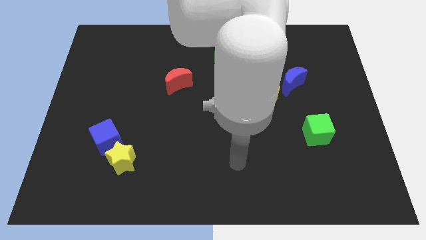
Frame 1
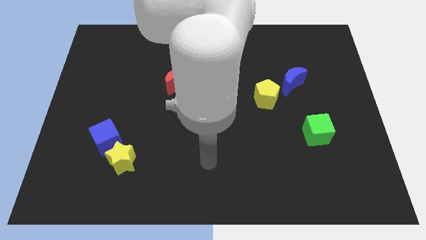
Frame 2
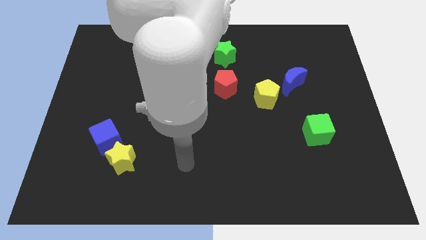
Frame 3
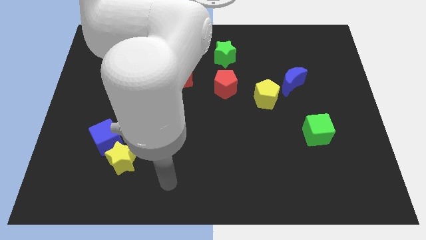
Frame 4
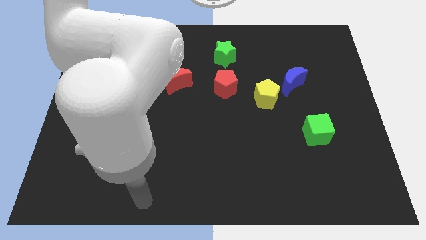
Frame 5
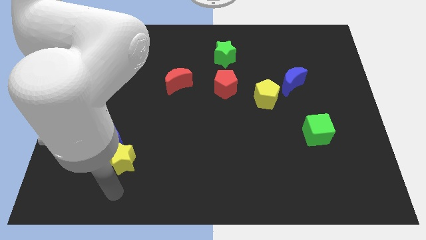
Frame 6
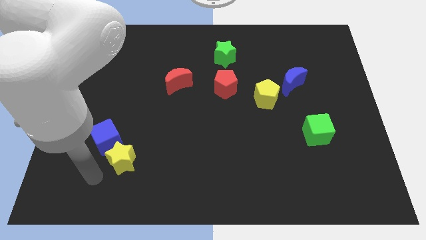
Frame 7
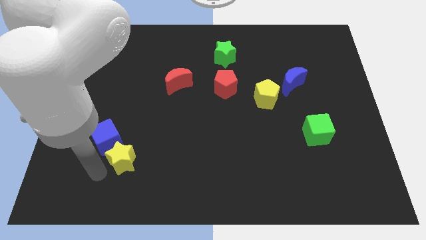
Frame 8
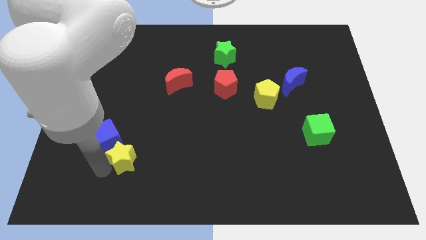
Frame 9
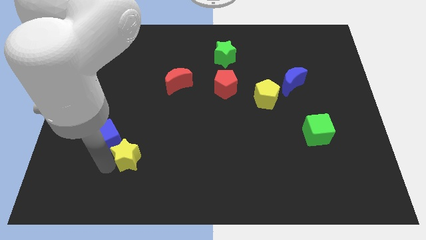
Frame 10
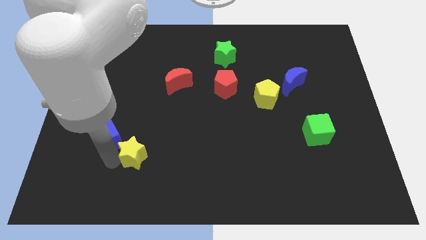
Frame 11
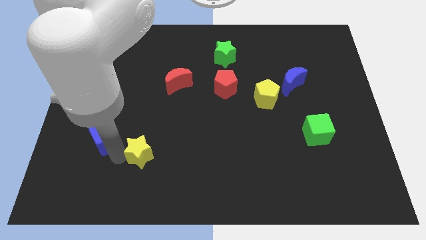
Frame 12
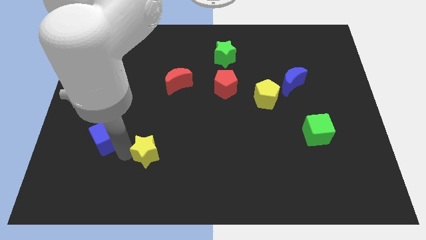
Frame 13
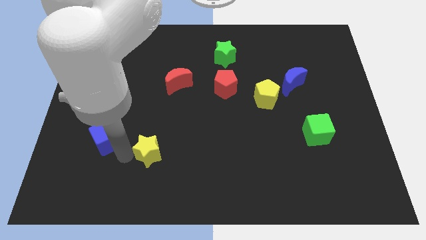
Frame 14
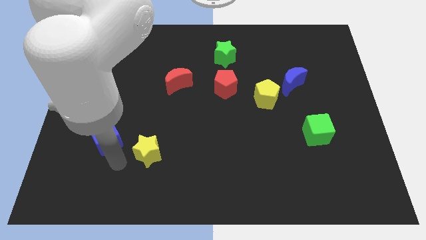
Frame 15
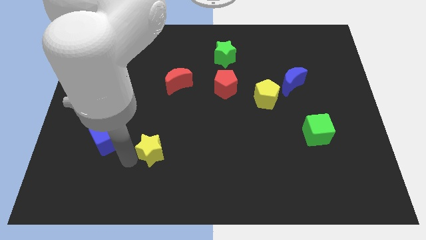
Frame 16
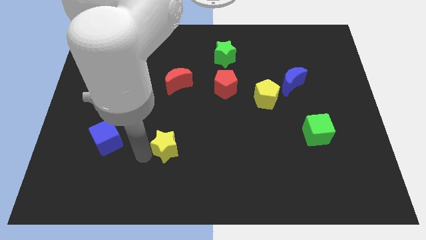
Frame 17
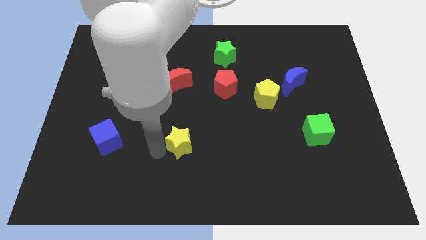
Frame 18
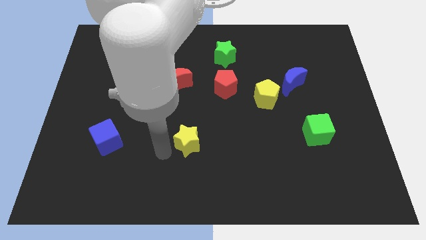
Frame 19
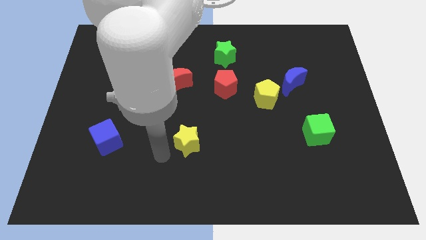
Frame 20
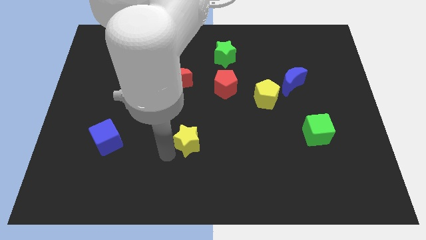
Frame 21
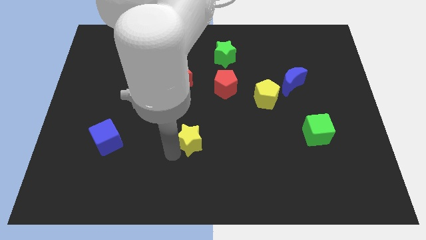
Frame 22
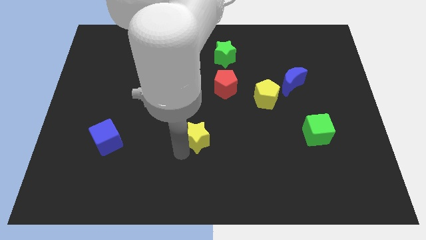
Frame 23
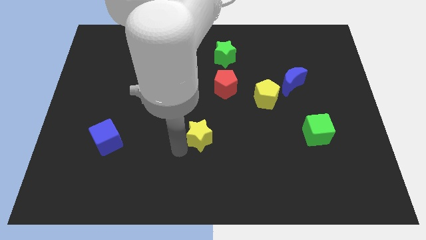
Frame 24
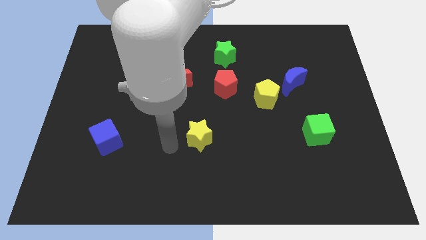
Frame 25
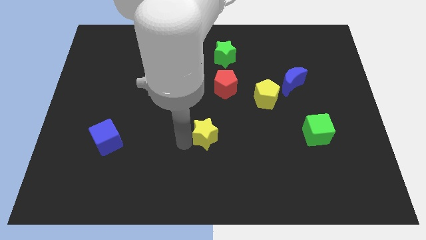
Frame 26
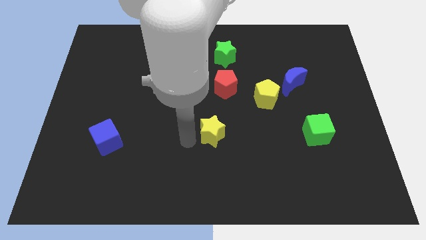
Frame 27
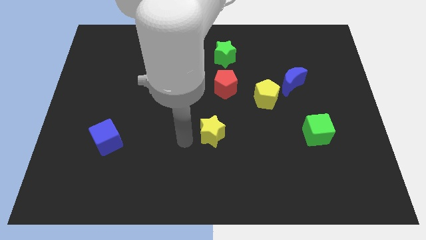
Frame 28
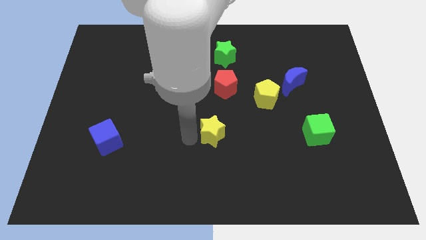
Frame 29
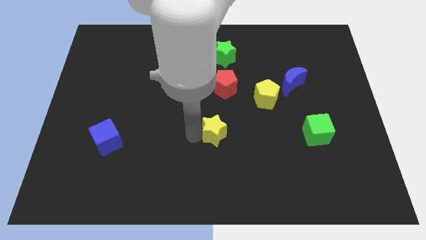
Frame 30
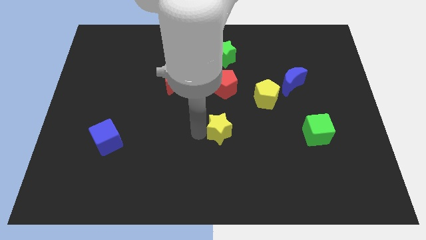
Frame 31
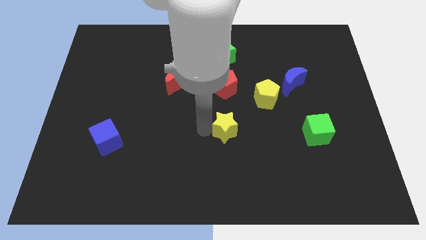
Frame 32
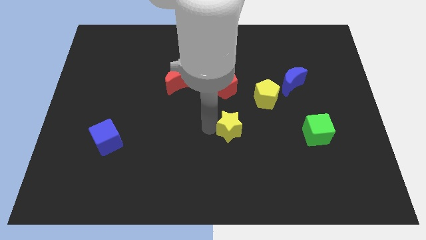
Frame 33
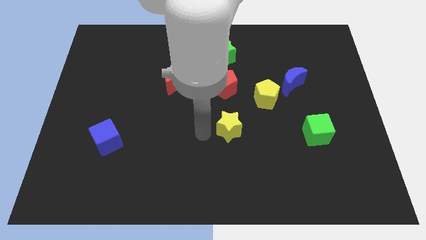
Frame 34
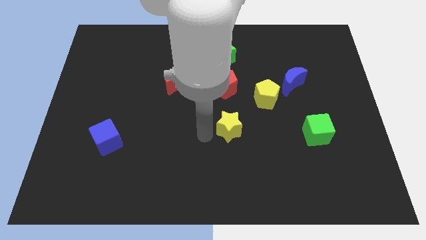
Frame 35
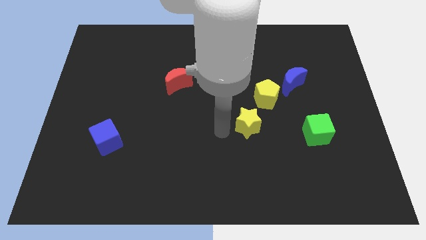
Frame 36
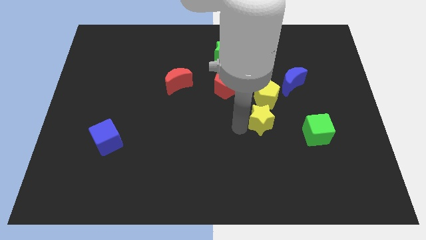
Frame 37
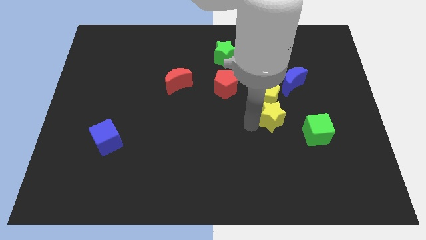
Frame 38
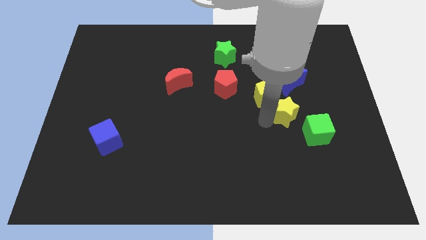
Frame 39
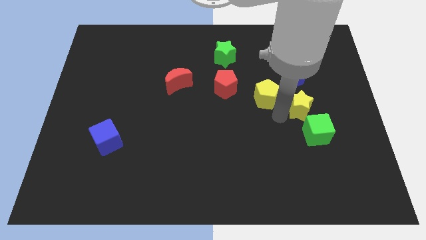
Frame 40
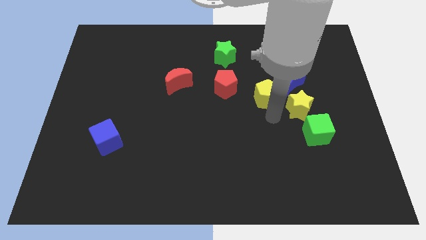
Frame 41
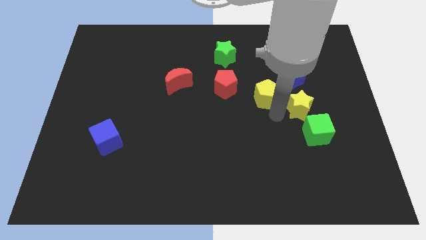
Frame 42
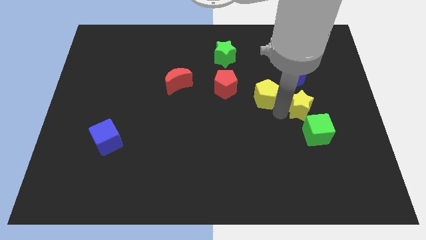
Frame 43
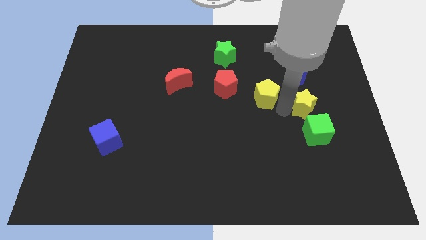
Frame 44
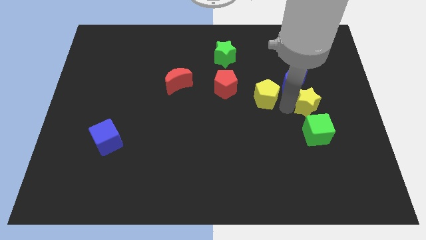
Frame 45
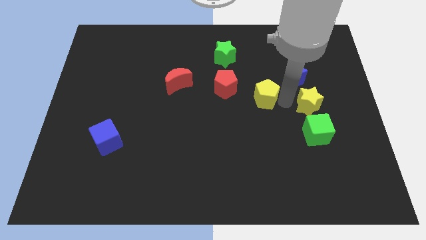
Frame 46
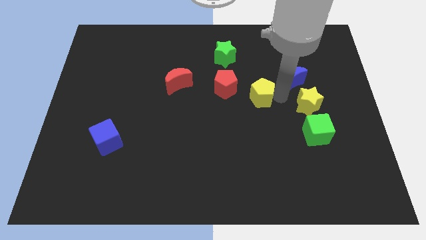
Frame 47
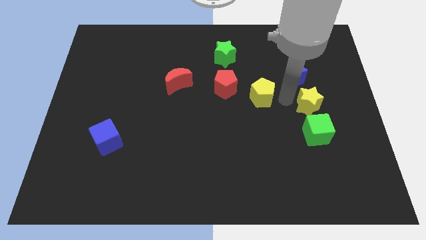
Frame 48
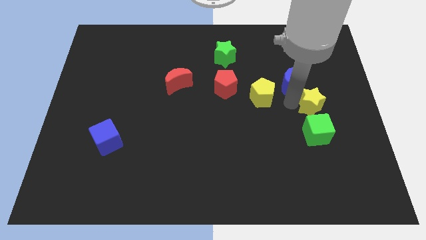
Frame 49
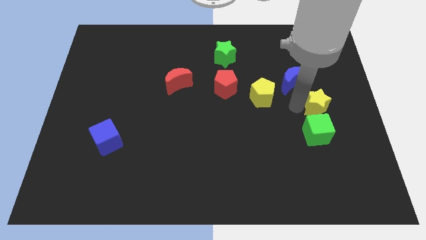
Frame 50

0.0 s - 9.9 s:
put the yellow star diagonally up and to the right of the green cube

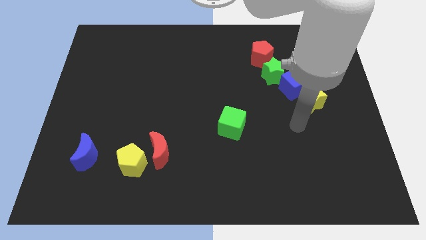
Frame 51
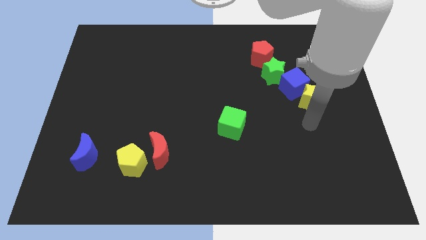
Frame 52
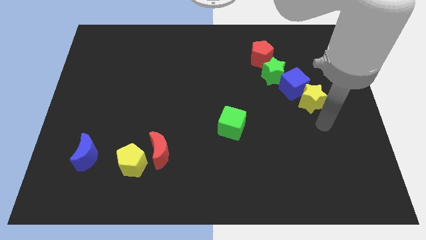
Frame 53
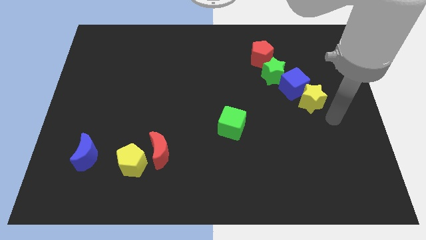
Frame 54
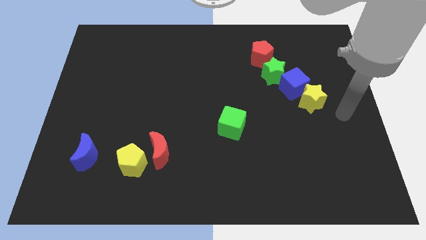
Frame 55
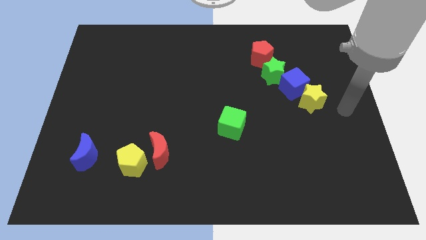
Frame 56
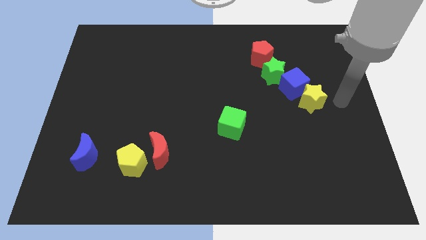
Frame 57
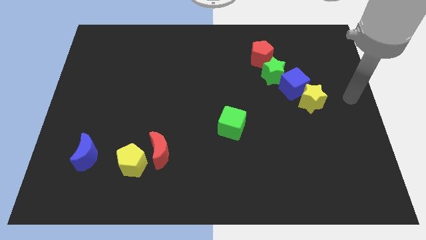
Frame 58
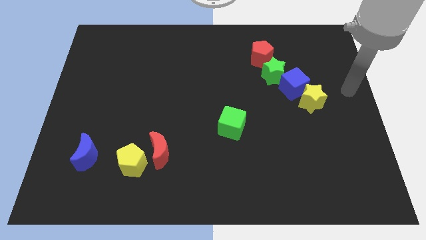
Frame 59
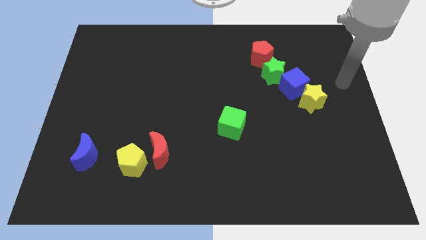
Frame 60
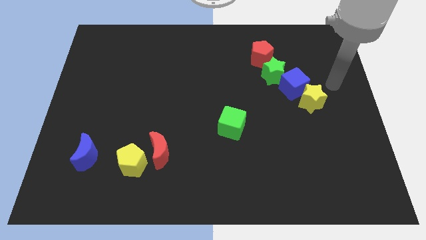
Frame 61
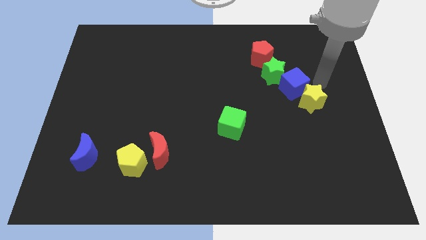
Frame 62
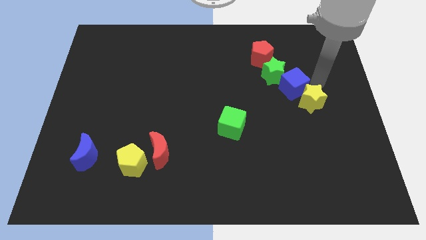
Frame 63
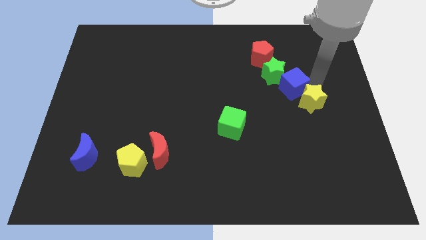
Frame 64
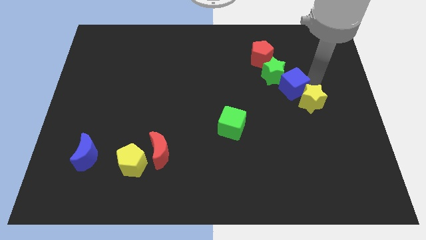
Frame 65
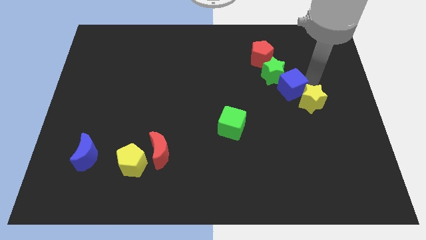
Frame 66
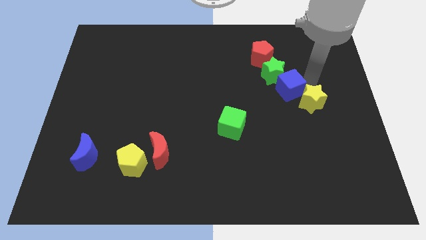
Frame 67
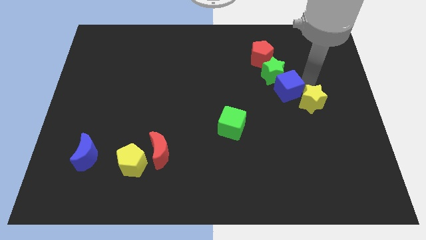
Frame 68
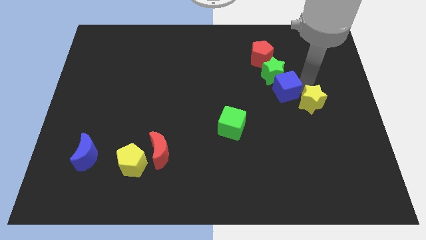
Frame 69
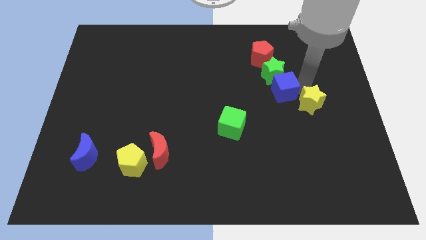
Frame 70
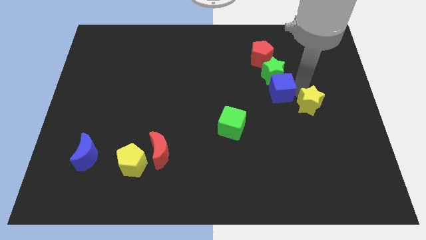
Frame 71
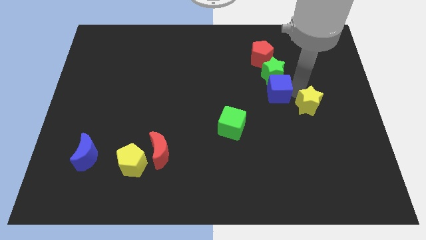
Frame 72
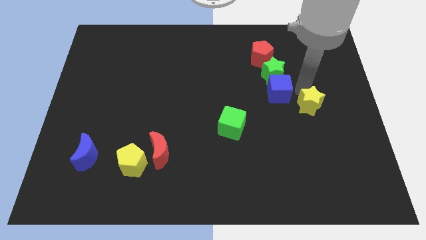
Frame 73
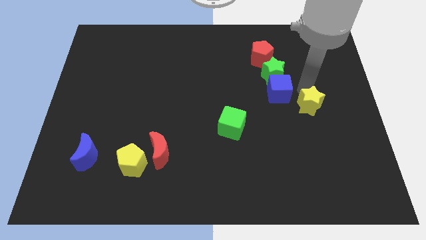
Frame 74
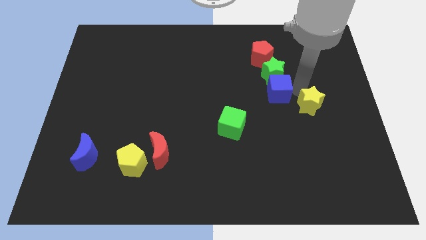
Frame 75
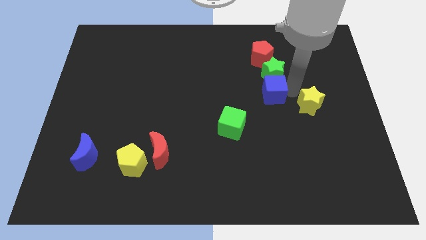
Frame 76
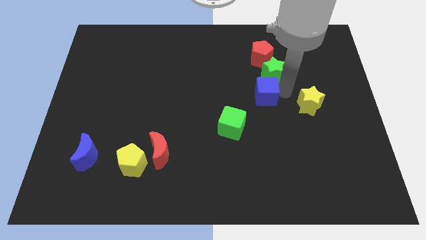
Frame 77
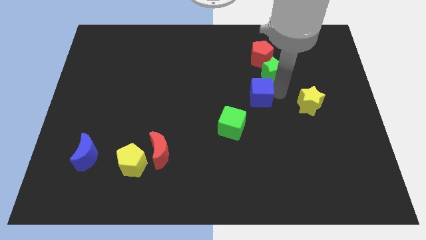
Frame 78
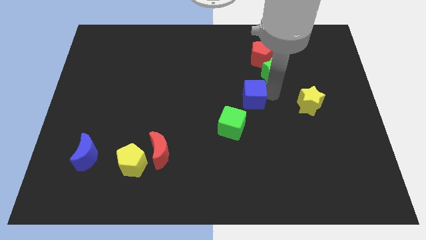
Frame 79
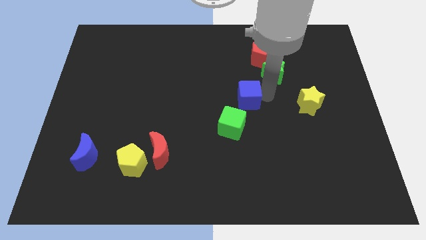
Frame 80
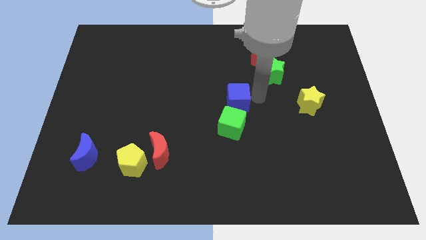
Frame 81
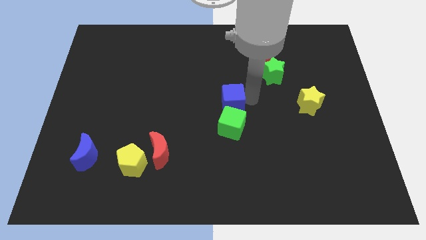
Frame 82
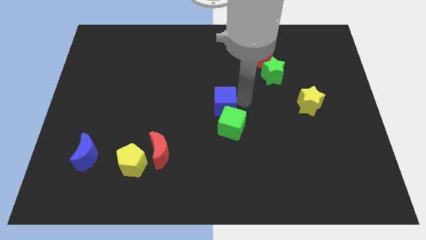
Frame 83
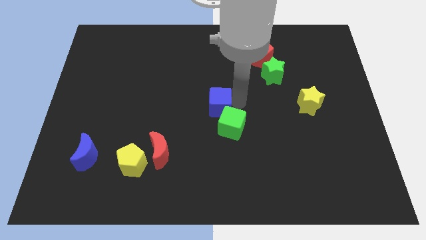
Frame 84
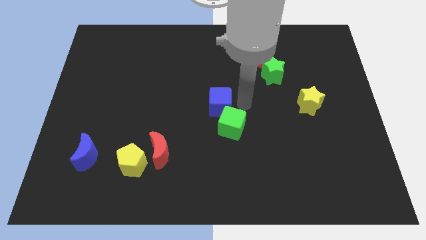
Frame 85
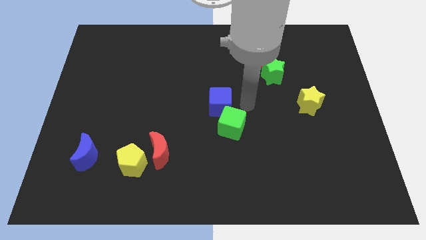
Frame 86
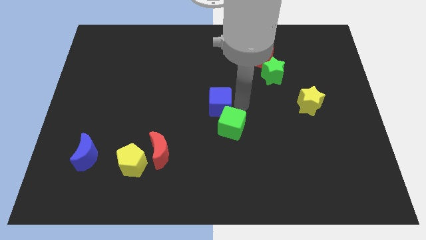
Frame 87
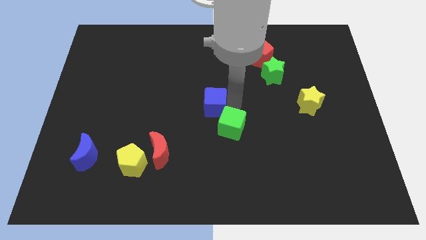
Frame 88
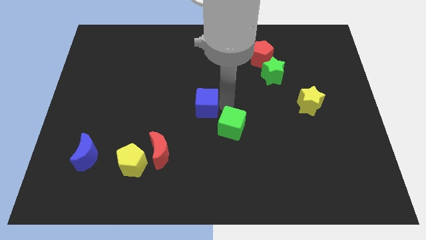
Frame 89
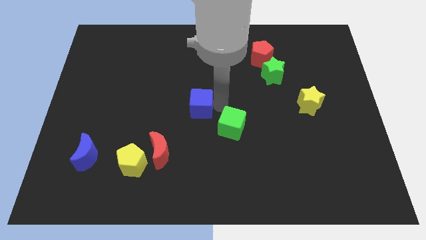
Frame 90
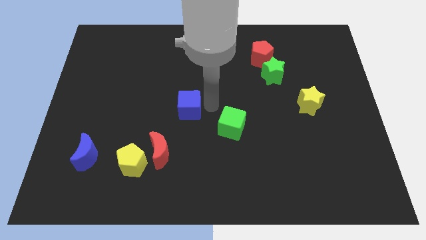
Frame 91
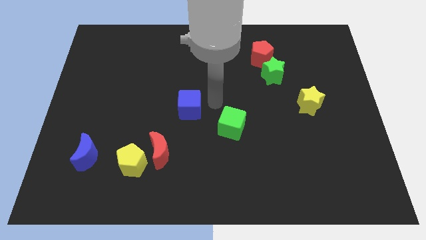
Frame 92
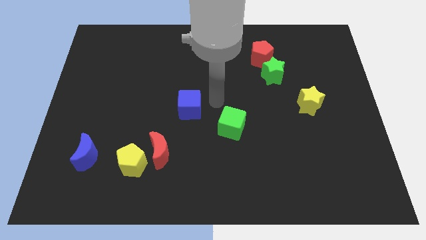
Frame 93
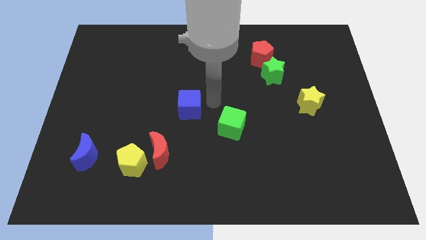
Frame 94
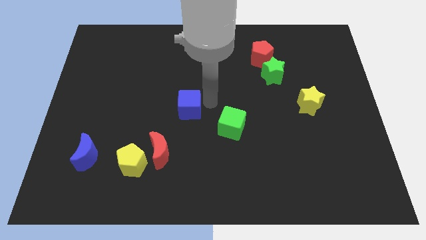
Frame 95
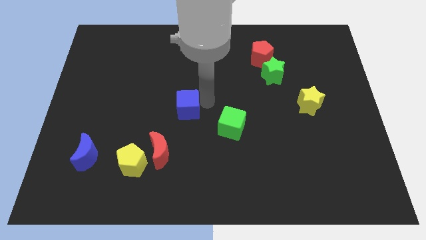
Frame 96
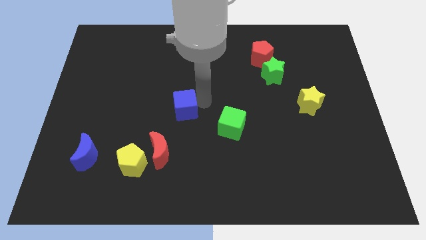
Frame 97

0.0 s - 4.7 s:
put the blue cube above the red moon
